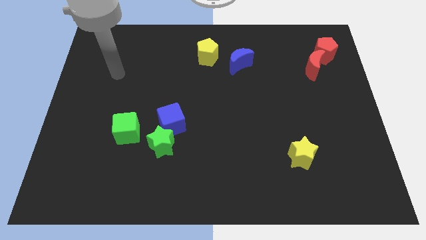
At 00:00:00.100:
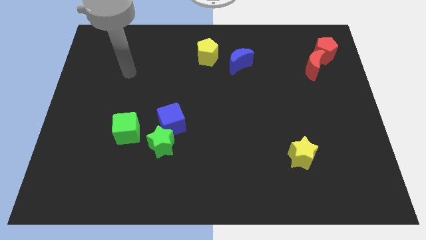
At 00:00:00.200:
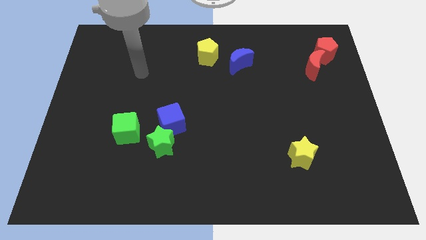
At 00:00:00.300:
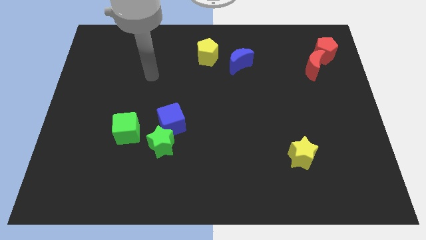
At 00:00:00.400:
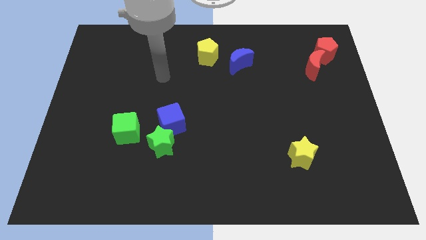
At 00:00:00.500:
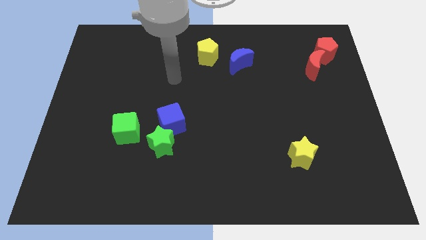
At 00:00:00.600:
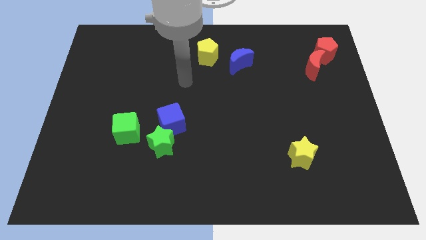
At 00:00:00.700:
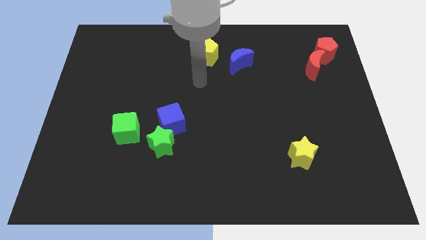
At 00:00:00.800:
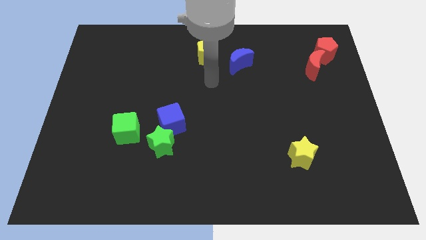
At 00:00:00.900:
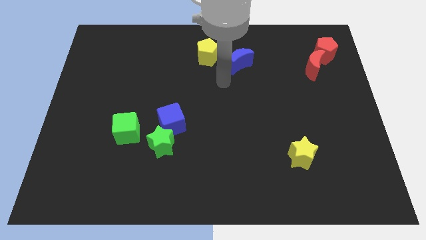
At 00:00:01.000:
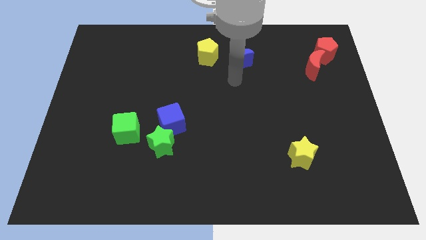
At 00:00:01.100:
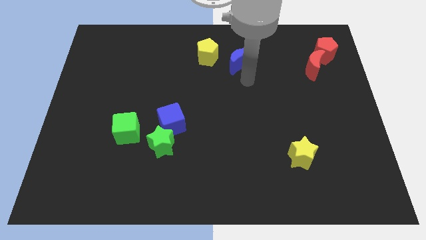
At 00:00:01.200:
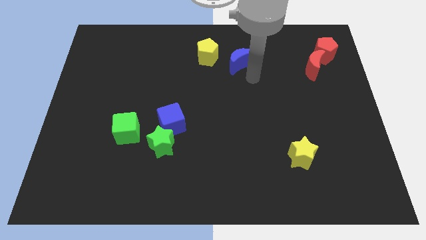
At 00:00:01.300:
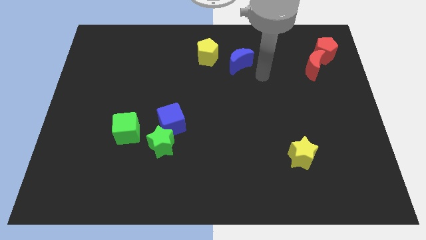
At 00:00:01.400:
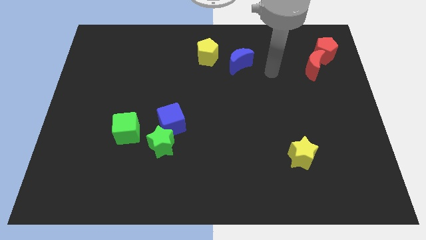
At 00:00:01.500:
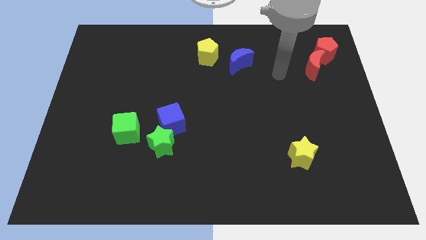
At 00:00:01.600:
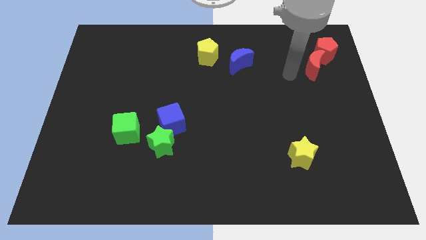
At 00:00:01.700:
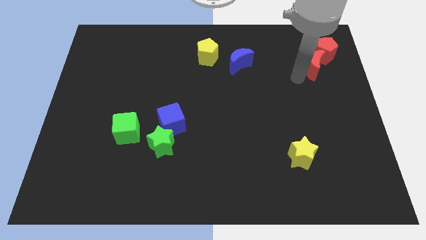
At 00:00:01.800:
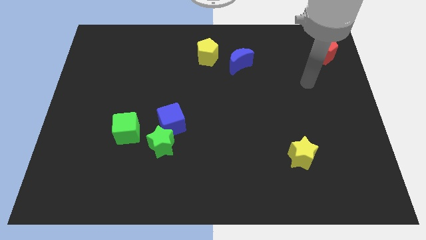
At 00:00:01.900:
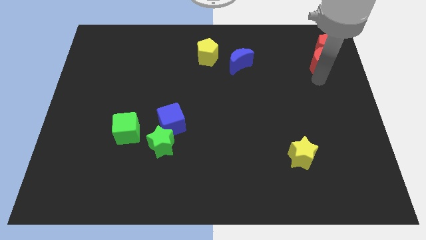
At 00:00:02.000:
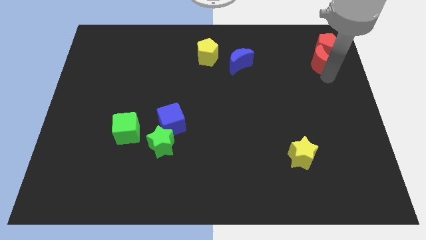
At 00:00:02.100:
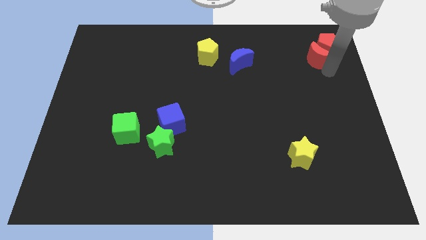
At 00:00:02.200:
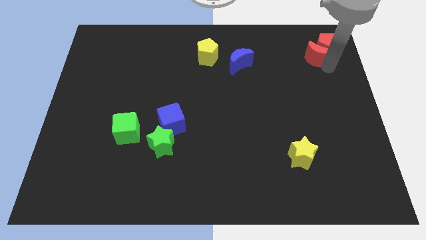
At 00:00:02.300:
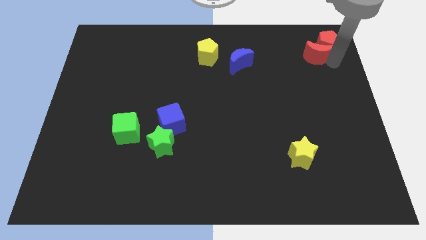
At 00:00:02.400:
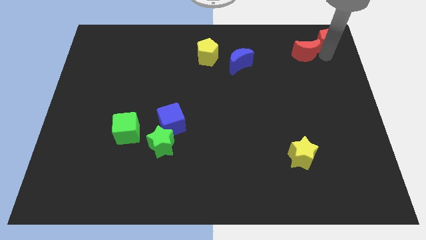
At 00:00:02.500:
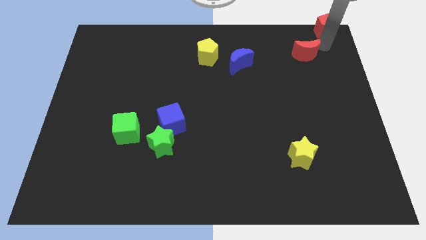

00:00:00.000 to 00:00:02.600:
separate the red moon from the red pentagon

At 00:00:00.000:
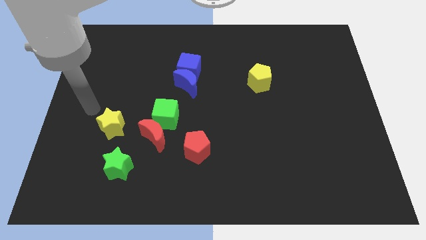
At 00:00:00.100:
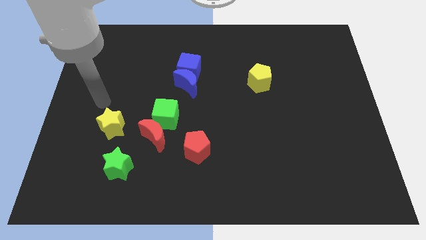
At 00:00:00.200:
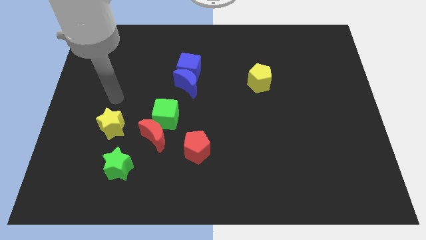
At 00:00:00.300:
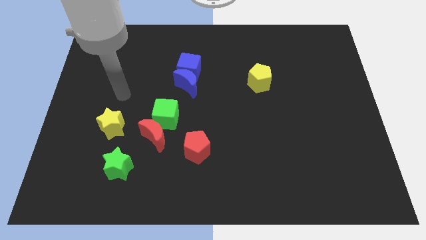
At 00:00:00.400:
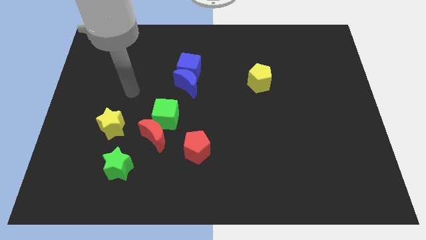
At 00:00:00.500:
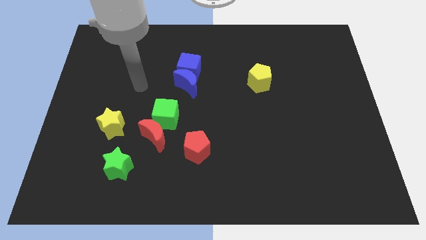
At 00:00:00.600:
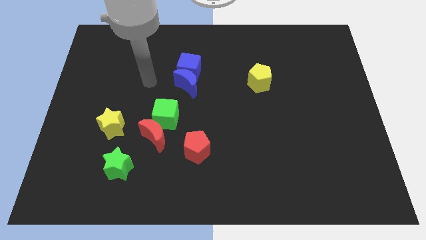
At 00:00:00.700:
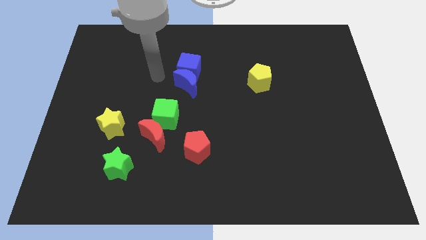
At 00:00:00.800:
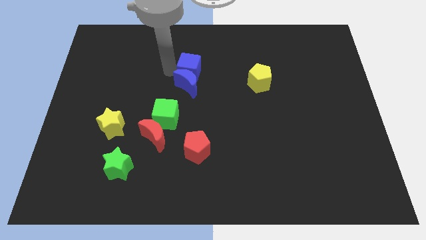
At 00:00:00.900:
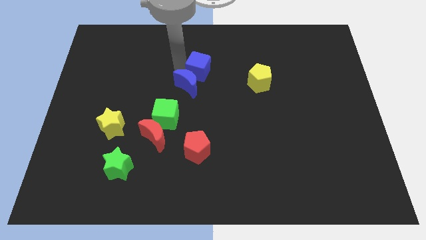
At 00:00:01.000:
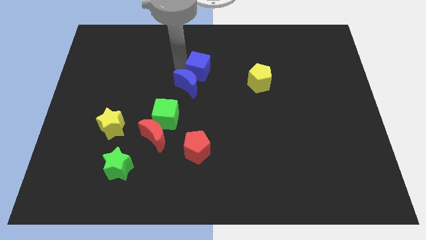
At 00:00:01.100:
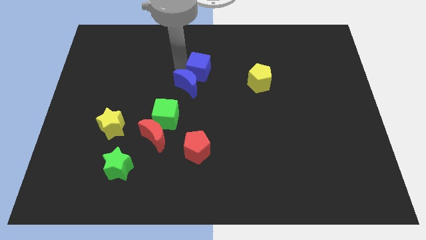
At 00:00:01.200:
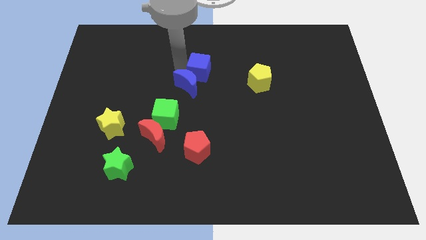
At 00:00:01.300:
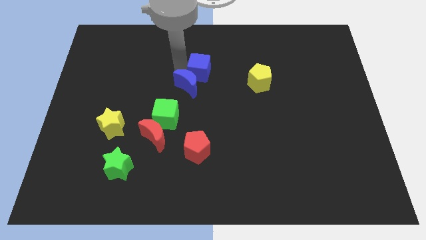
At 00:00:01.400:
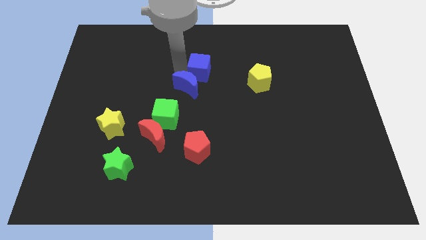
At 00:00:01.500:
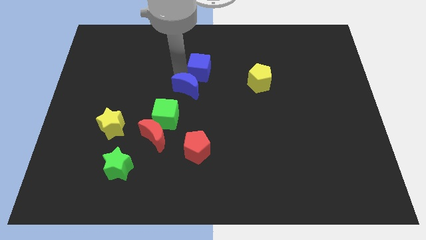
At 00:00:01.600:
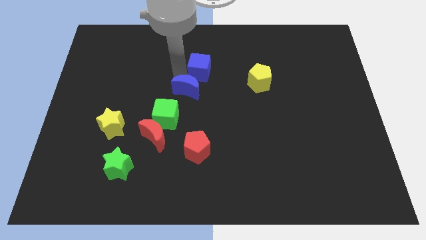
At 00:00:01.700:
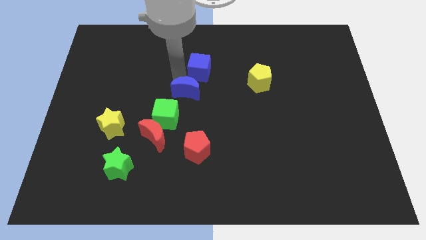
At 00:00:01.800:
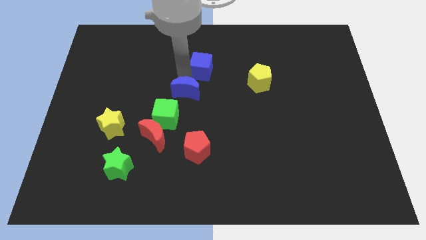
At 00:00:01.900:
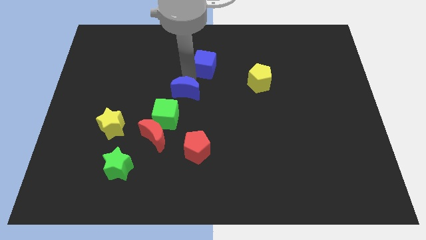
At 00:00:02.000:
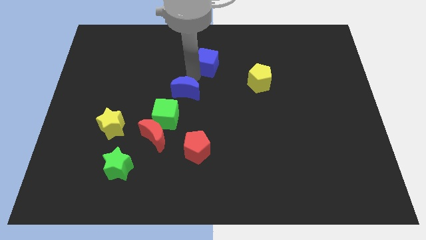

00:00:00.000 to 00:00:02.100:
move the blue moon away from the blue cube

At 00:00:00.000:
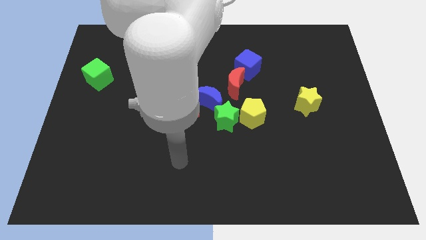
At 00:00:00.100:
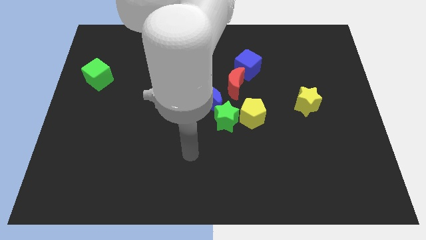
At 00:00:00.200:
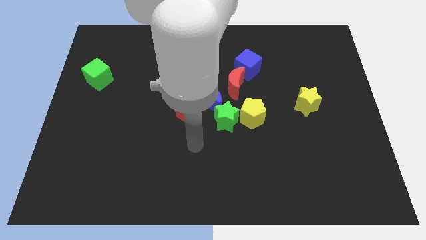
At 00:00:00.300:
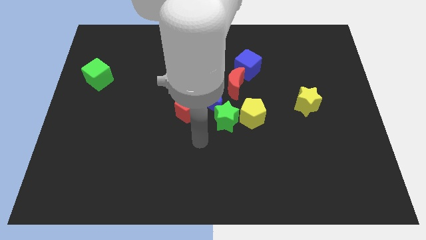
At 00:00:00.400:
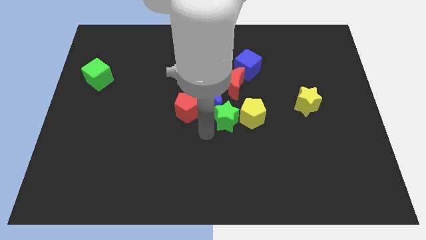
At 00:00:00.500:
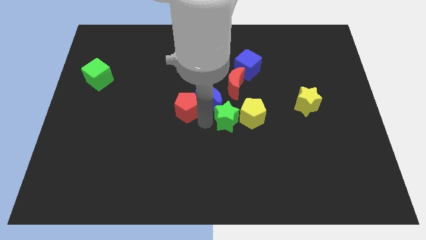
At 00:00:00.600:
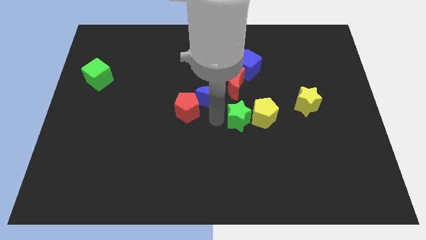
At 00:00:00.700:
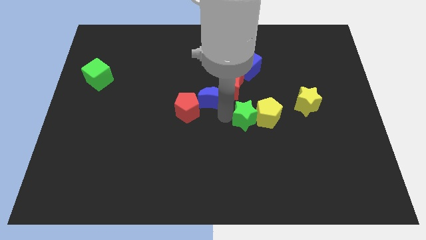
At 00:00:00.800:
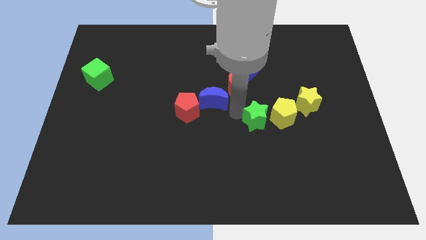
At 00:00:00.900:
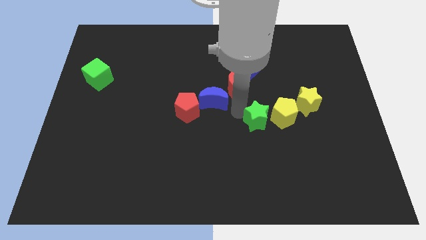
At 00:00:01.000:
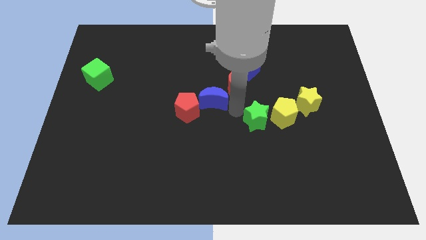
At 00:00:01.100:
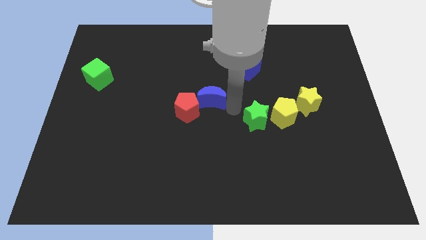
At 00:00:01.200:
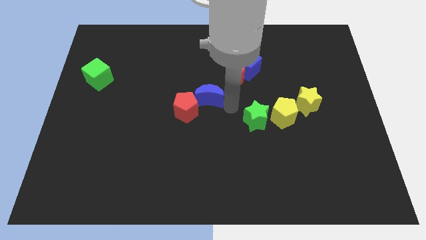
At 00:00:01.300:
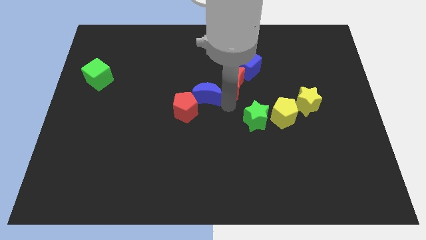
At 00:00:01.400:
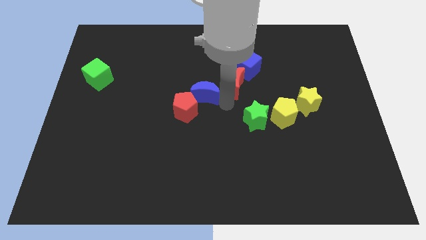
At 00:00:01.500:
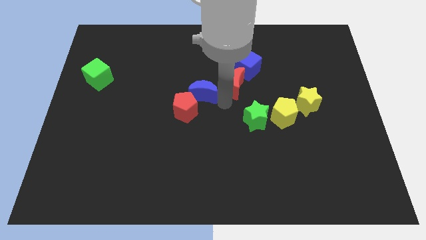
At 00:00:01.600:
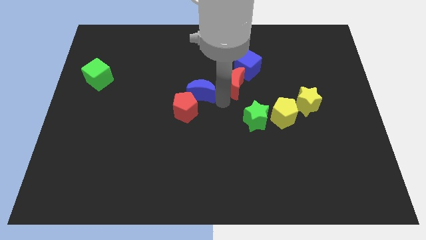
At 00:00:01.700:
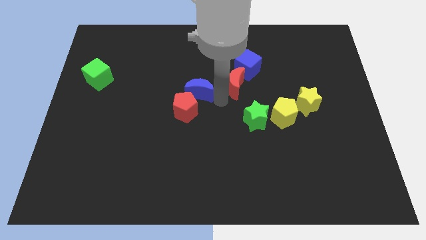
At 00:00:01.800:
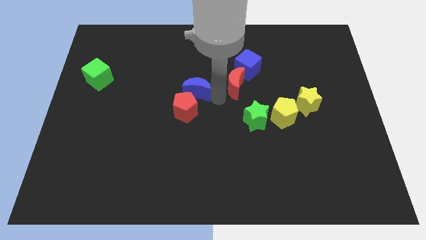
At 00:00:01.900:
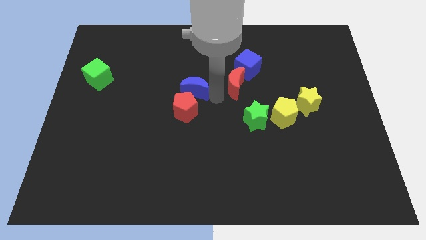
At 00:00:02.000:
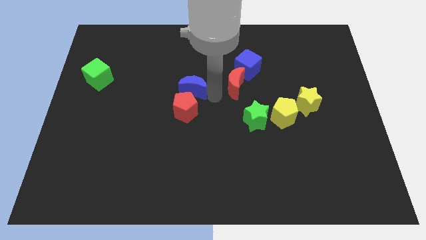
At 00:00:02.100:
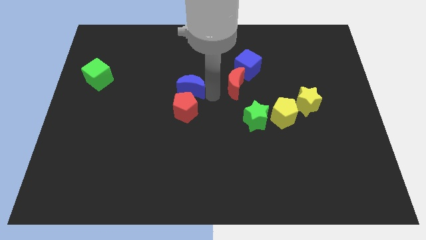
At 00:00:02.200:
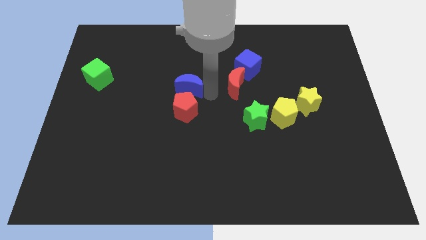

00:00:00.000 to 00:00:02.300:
pull the blue moon apart from the red pentagon, green star, and red moon

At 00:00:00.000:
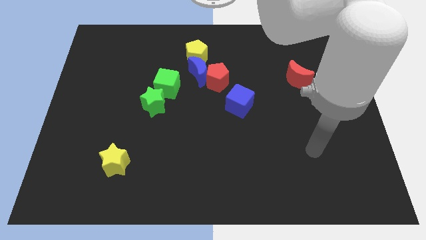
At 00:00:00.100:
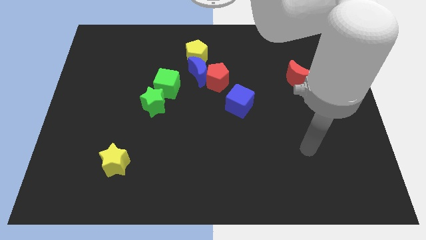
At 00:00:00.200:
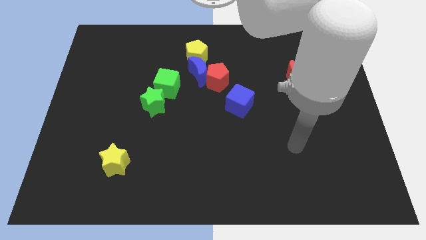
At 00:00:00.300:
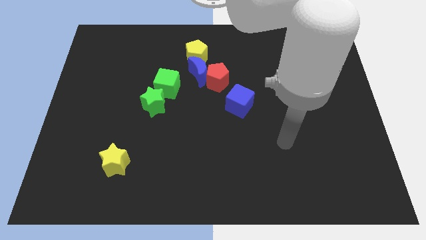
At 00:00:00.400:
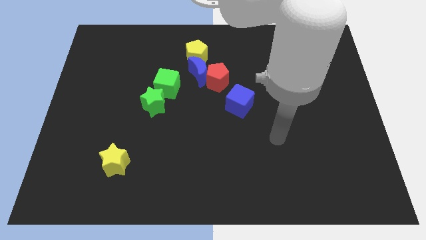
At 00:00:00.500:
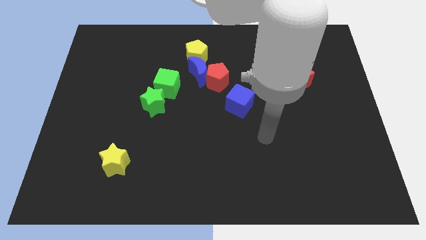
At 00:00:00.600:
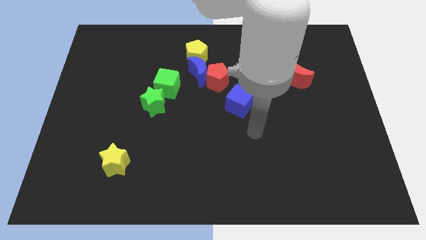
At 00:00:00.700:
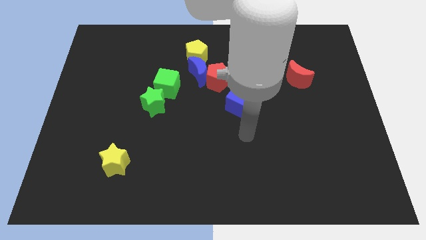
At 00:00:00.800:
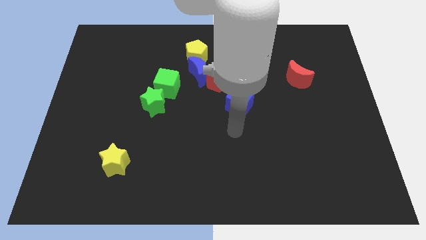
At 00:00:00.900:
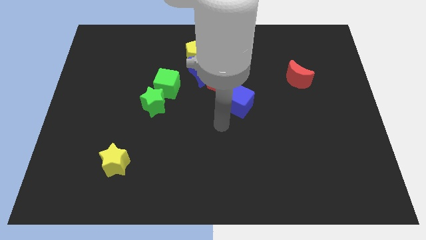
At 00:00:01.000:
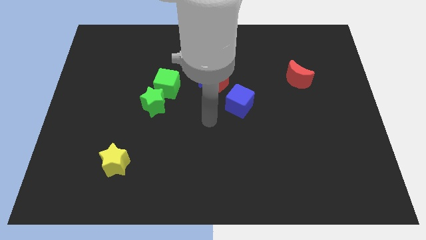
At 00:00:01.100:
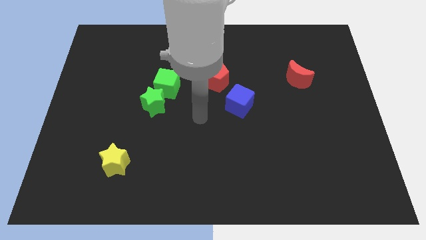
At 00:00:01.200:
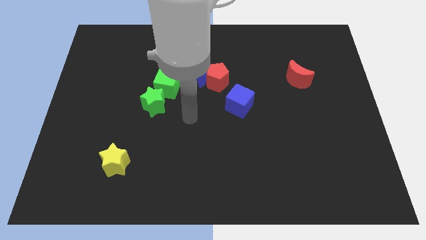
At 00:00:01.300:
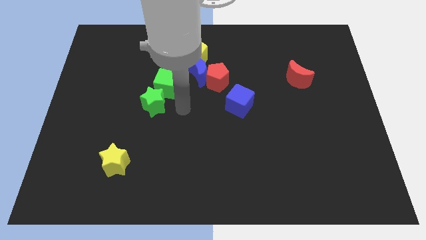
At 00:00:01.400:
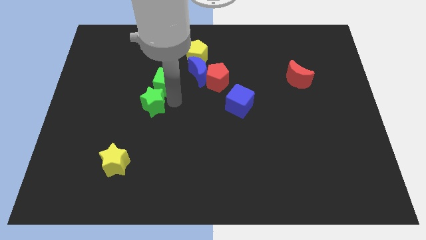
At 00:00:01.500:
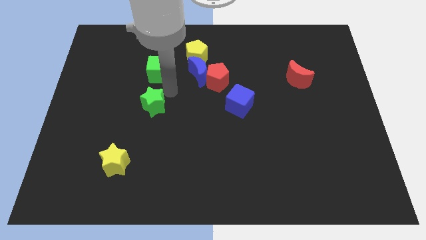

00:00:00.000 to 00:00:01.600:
separate the green star from the green cube

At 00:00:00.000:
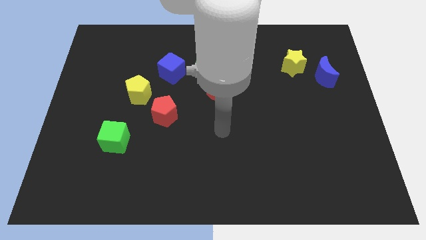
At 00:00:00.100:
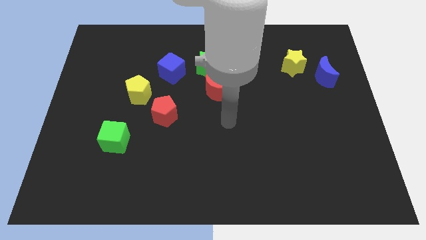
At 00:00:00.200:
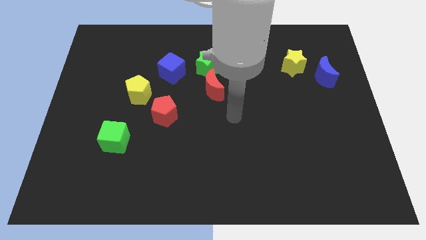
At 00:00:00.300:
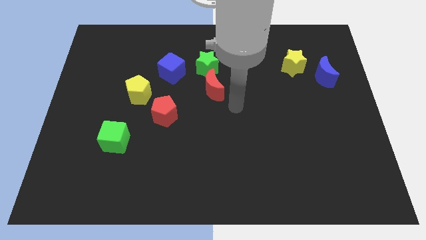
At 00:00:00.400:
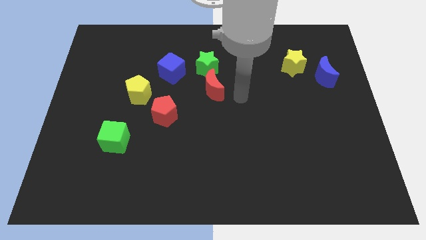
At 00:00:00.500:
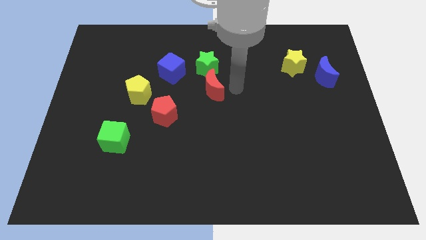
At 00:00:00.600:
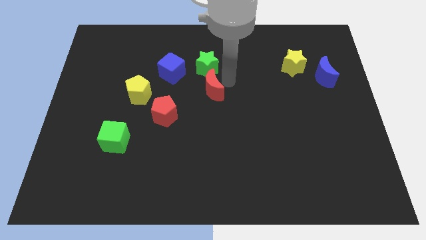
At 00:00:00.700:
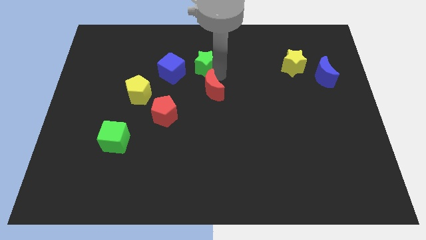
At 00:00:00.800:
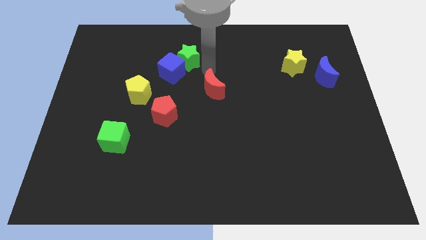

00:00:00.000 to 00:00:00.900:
move the red moon away from the green star
